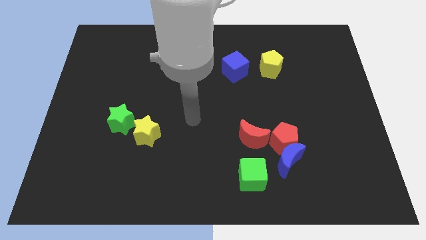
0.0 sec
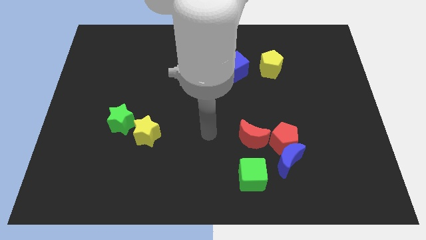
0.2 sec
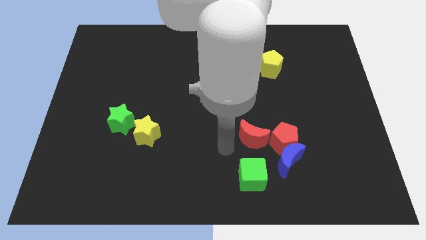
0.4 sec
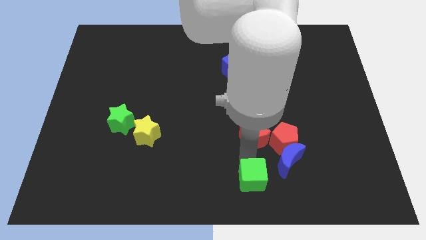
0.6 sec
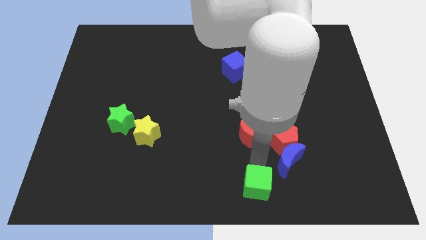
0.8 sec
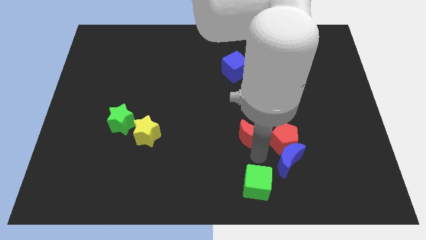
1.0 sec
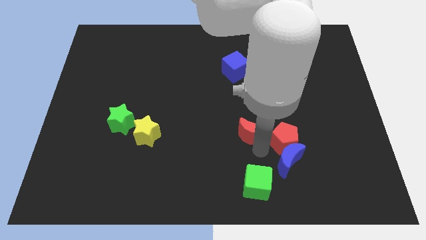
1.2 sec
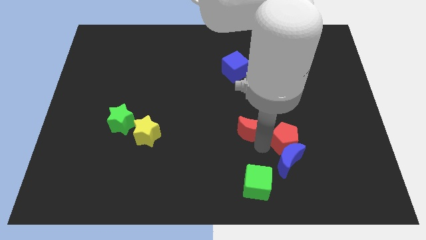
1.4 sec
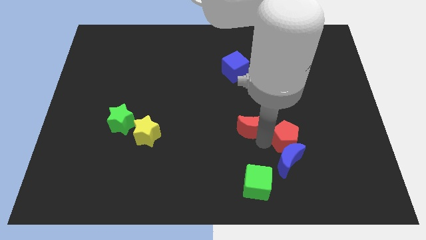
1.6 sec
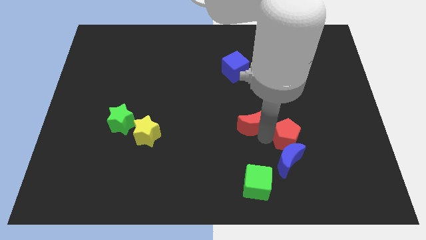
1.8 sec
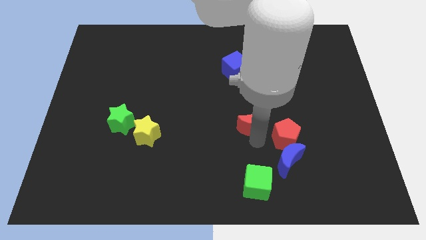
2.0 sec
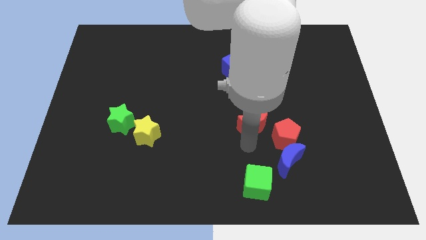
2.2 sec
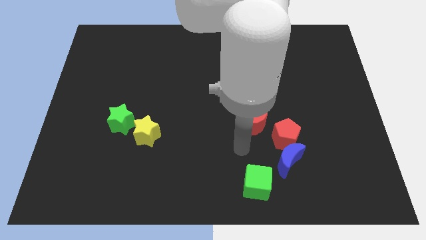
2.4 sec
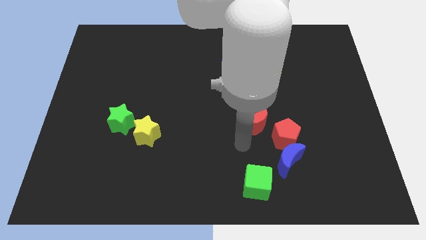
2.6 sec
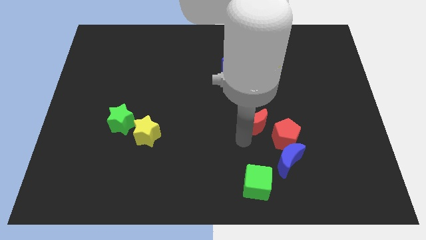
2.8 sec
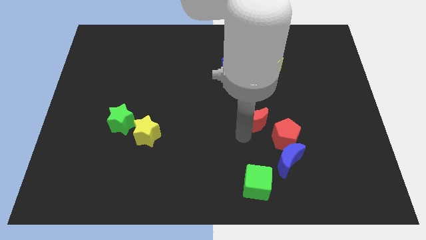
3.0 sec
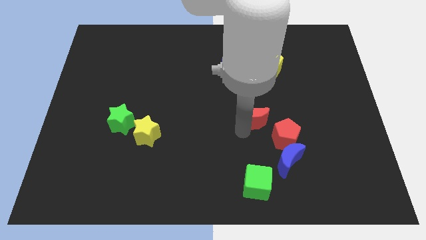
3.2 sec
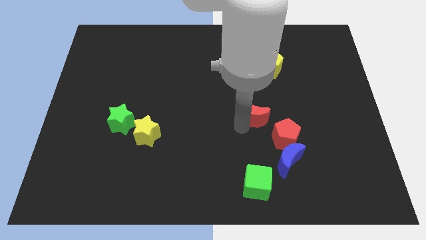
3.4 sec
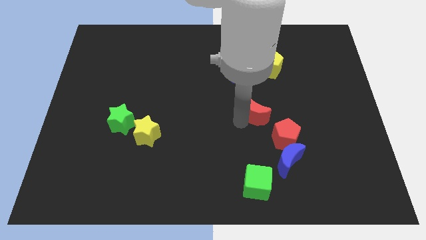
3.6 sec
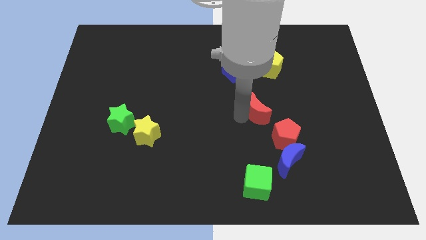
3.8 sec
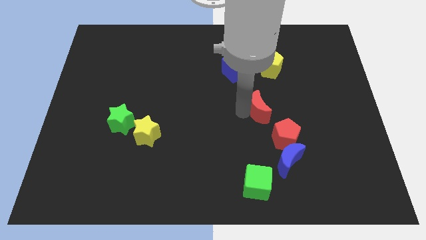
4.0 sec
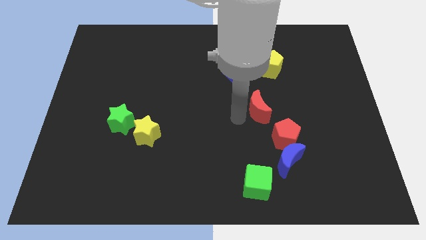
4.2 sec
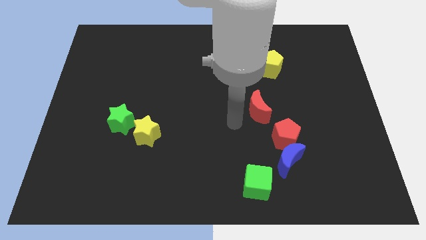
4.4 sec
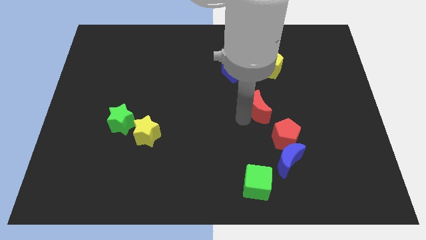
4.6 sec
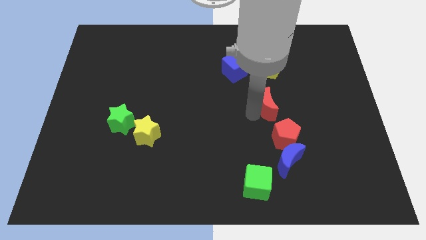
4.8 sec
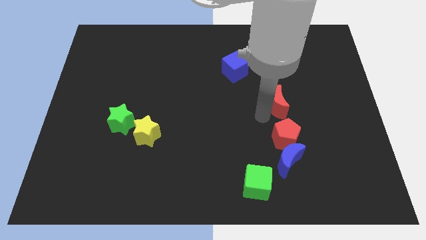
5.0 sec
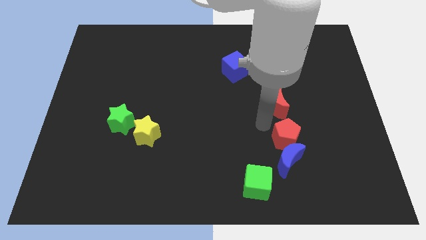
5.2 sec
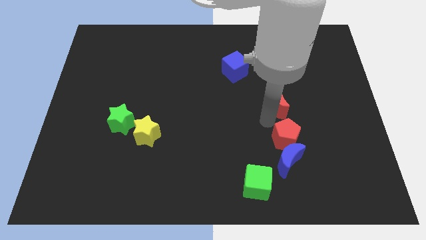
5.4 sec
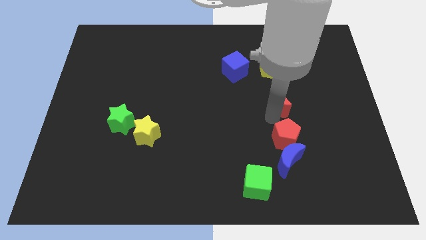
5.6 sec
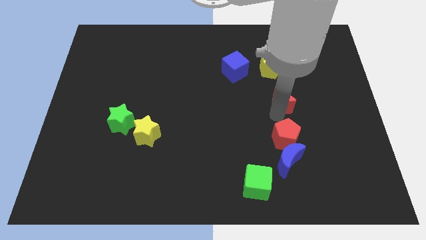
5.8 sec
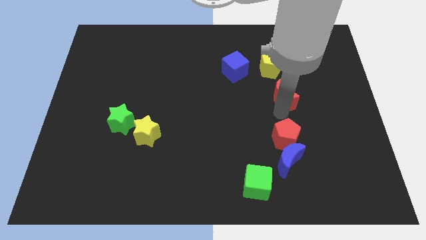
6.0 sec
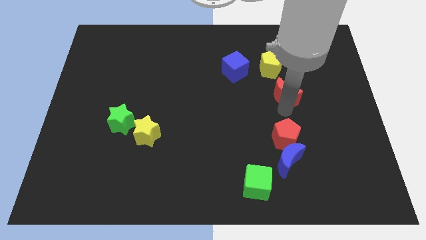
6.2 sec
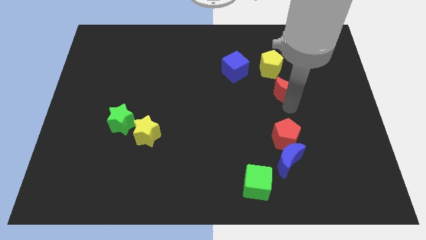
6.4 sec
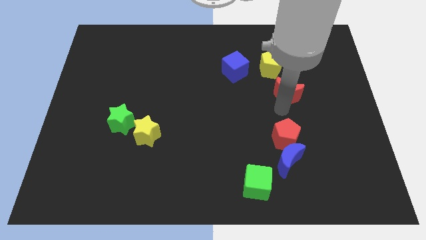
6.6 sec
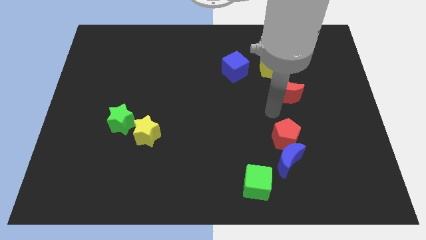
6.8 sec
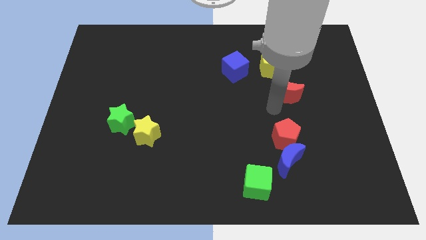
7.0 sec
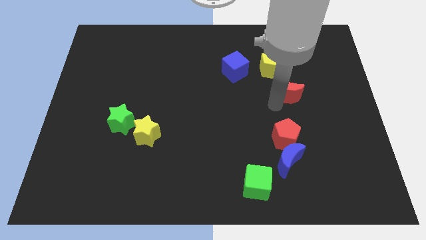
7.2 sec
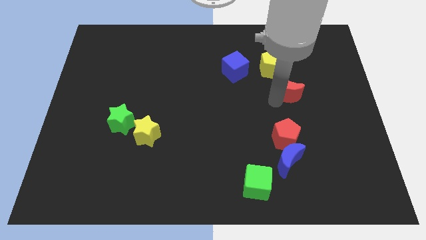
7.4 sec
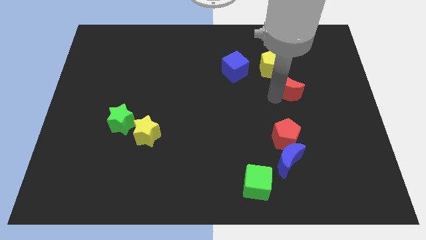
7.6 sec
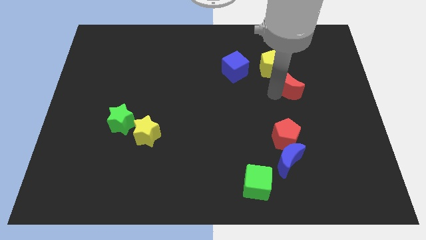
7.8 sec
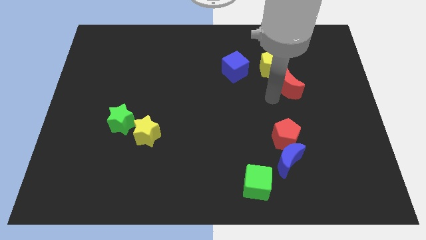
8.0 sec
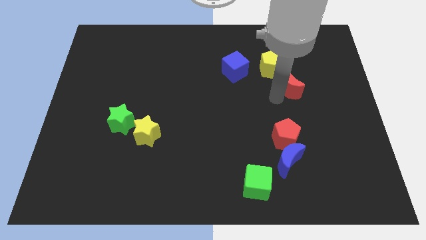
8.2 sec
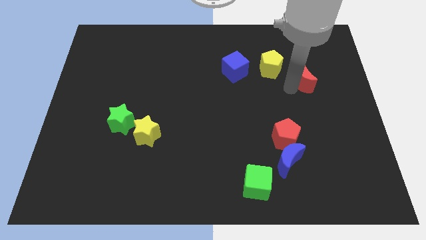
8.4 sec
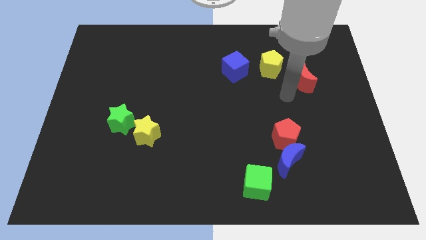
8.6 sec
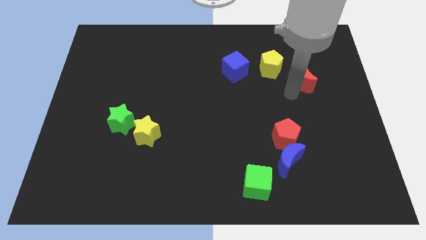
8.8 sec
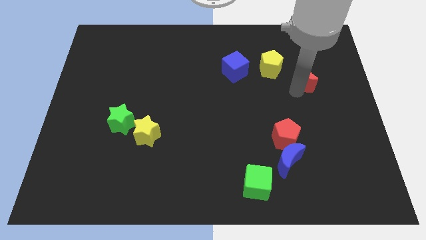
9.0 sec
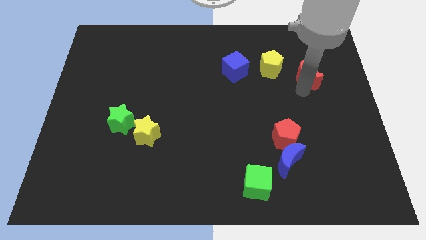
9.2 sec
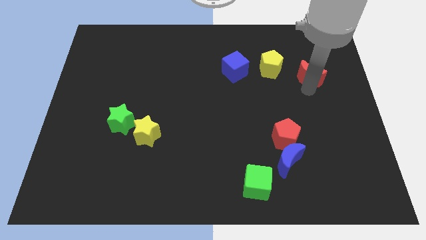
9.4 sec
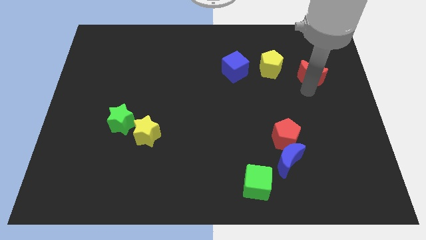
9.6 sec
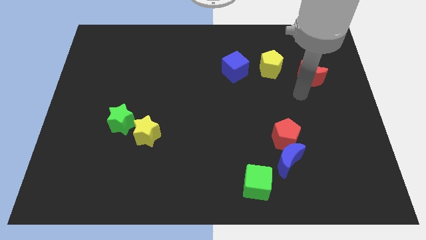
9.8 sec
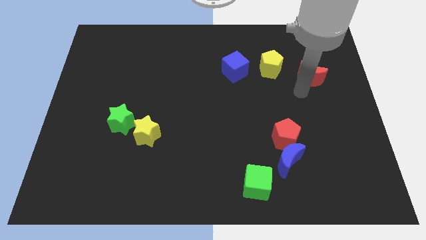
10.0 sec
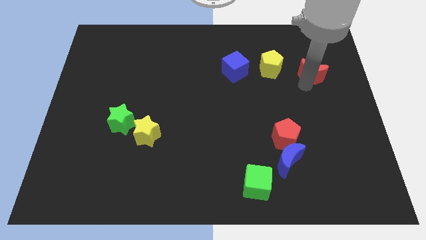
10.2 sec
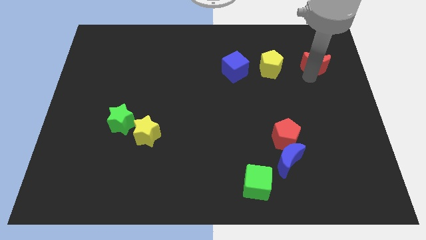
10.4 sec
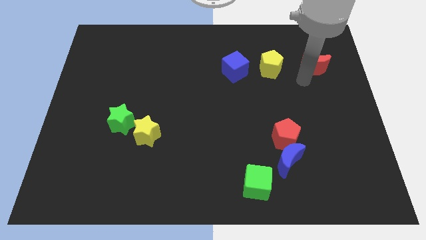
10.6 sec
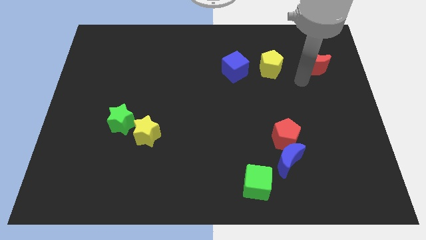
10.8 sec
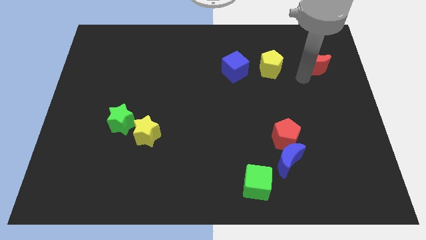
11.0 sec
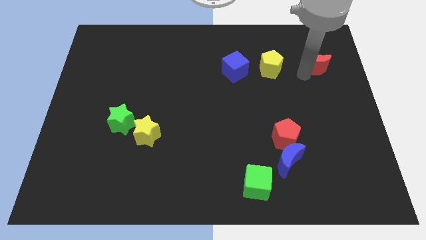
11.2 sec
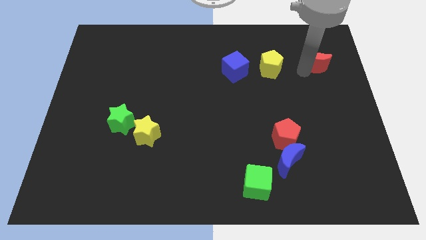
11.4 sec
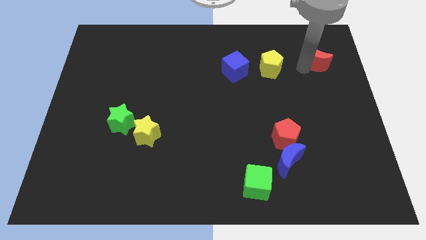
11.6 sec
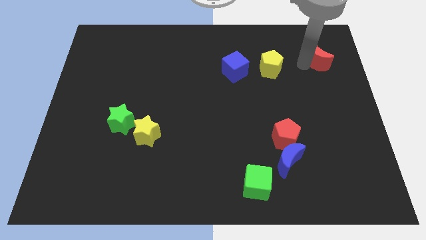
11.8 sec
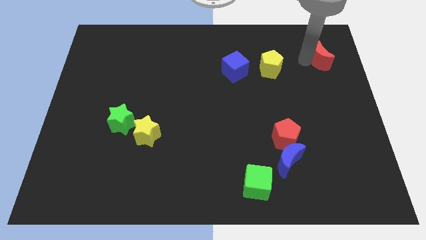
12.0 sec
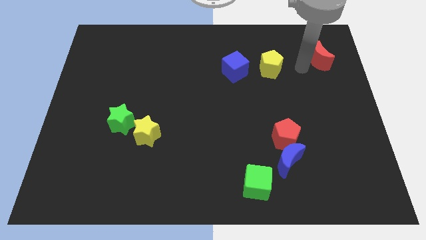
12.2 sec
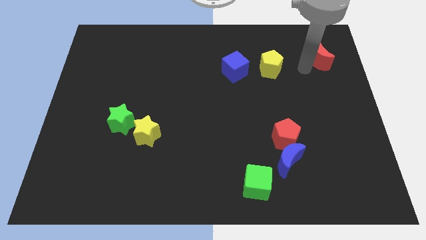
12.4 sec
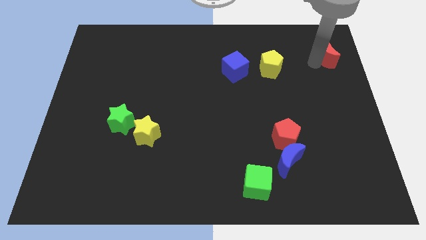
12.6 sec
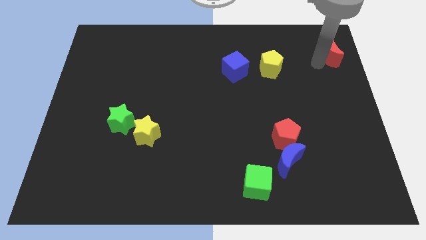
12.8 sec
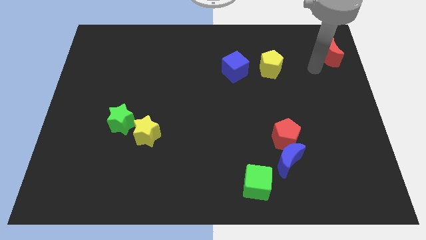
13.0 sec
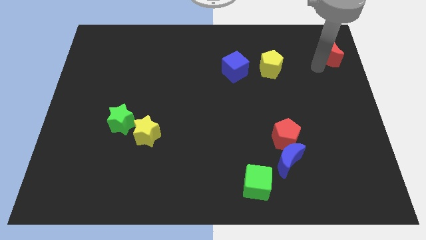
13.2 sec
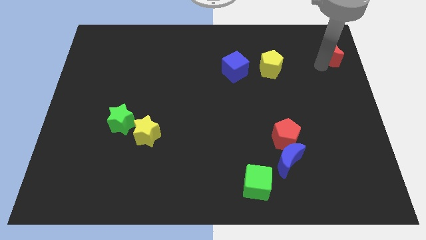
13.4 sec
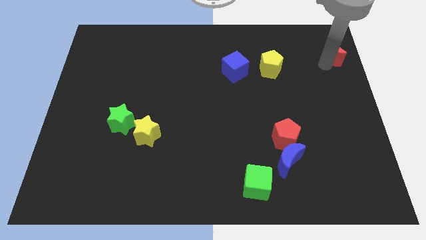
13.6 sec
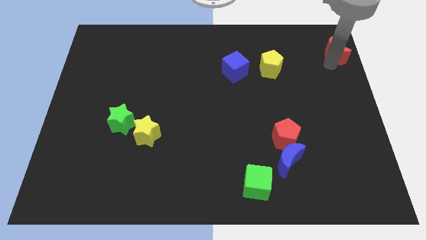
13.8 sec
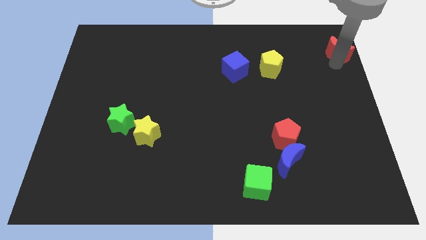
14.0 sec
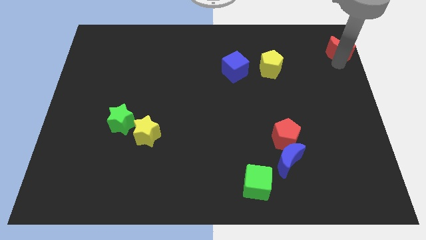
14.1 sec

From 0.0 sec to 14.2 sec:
move the red moon to the upper right corner
